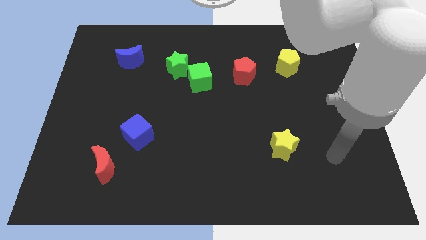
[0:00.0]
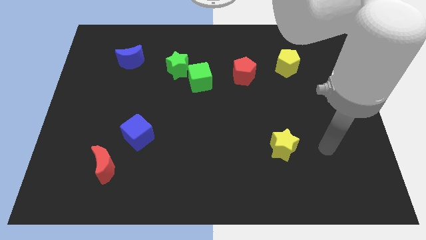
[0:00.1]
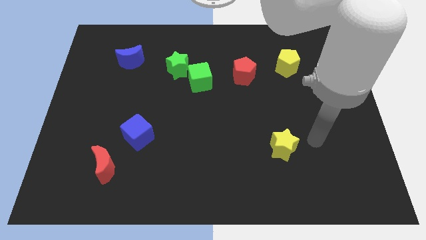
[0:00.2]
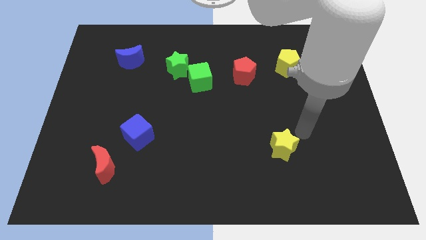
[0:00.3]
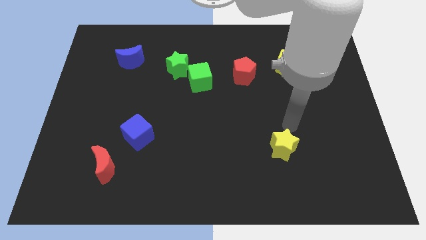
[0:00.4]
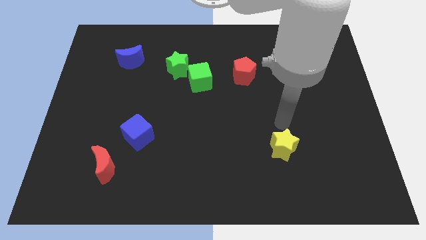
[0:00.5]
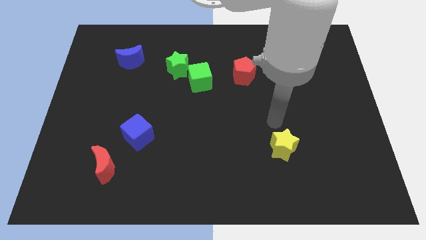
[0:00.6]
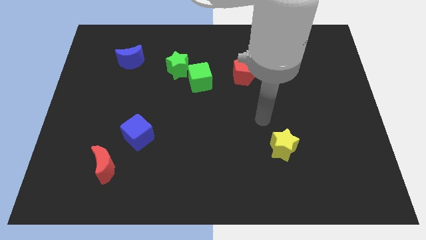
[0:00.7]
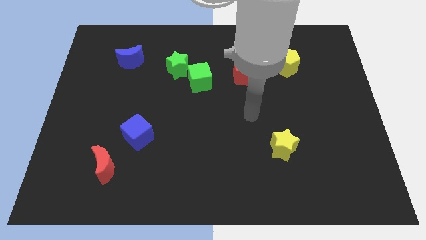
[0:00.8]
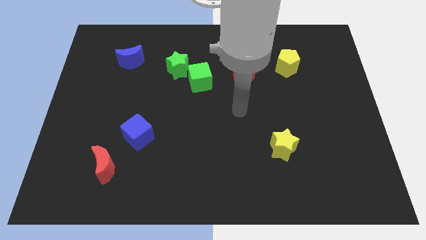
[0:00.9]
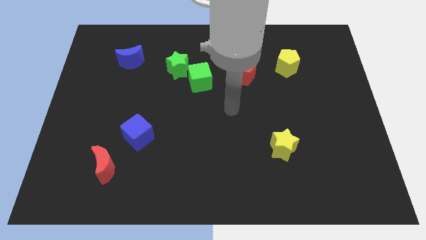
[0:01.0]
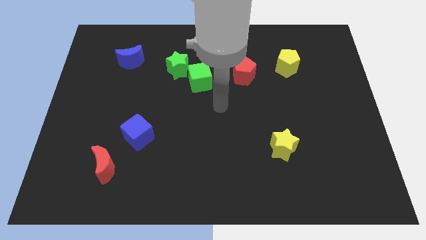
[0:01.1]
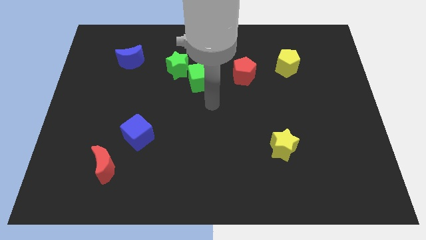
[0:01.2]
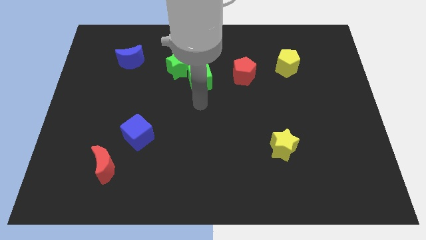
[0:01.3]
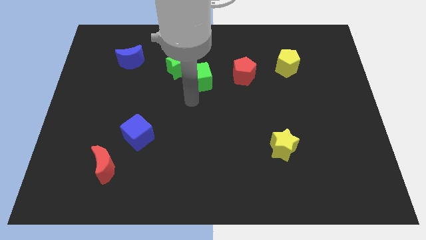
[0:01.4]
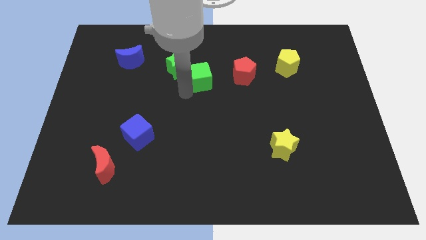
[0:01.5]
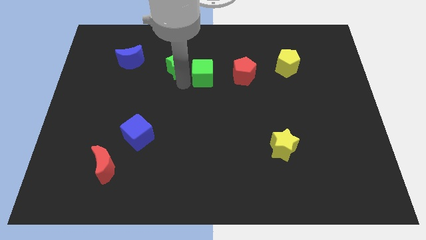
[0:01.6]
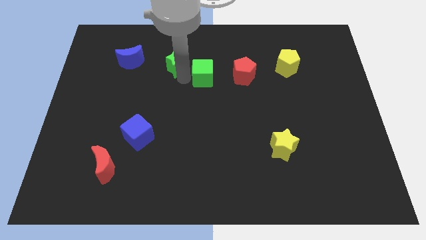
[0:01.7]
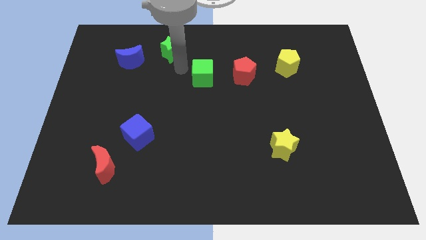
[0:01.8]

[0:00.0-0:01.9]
pull the green cube apart from the green star

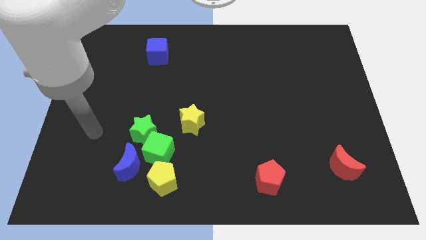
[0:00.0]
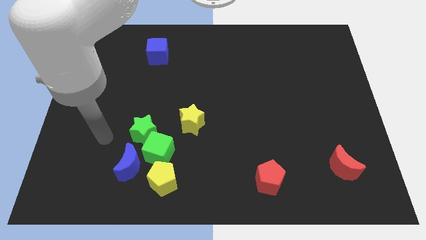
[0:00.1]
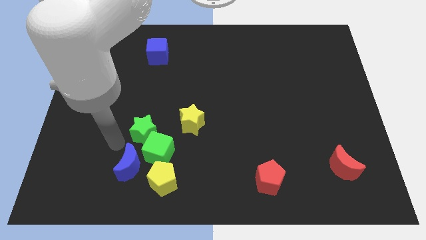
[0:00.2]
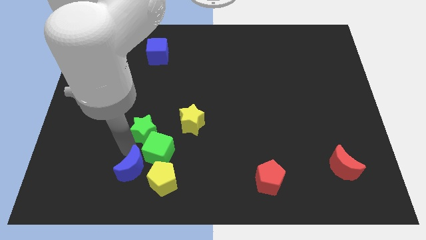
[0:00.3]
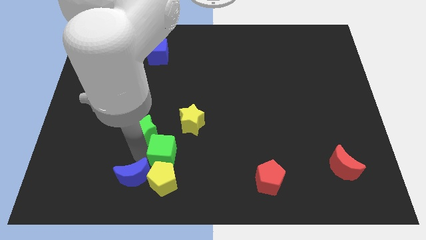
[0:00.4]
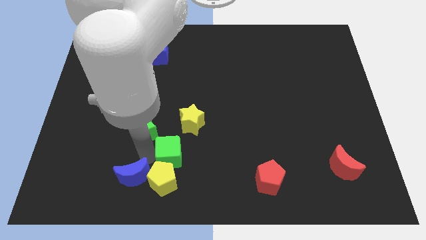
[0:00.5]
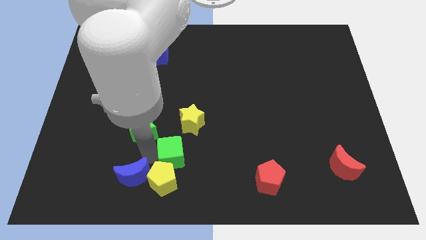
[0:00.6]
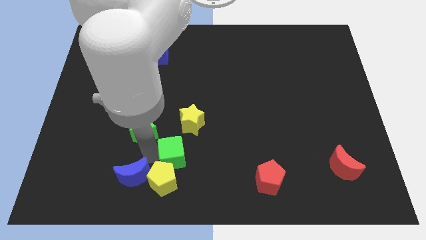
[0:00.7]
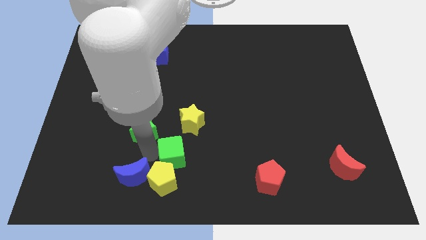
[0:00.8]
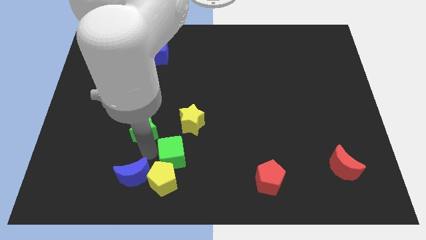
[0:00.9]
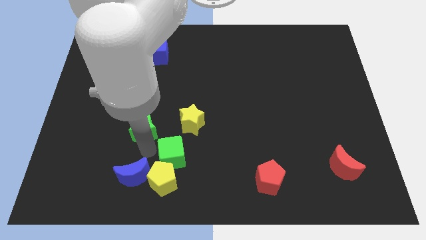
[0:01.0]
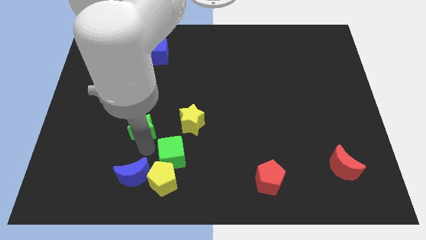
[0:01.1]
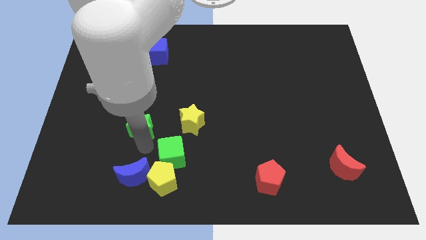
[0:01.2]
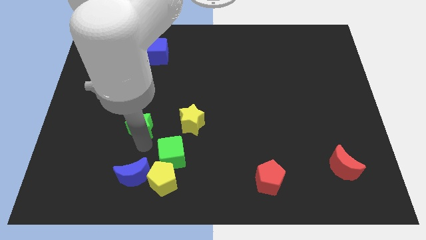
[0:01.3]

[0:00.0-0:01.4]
pull the green star apart from the green cube and blue moon

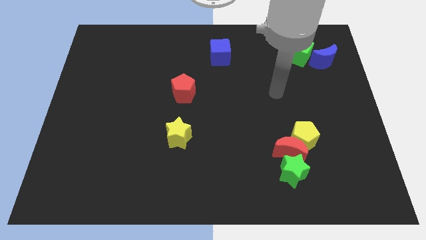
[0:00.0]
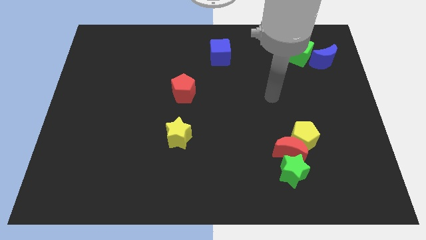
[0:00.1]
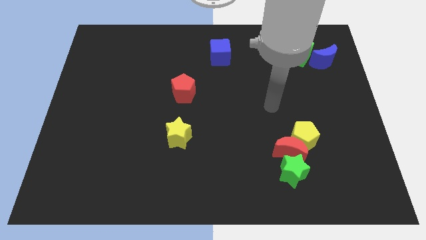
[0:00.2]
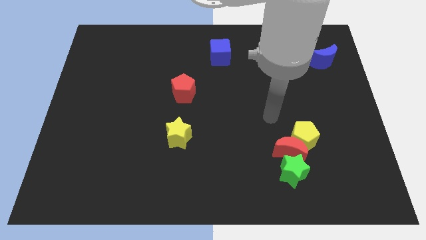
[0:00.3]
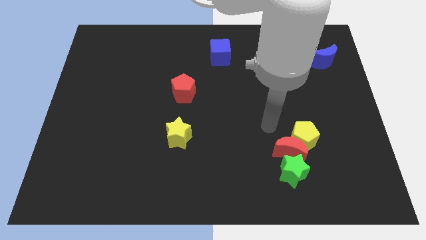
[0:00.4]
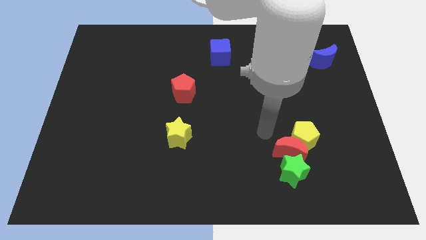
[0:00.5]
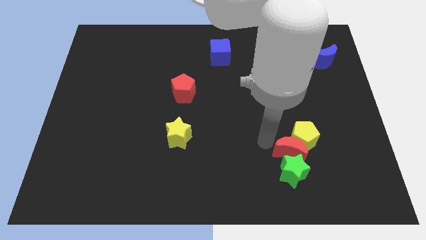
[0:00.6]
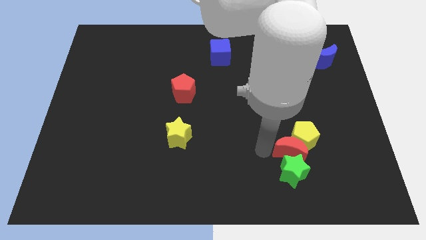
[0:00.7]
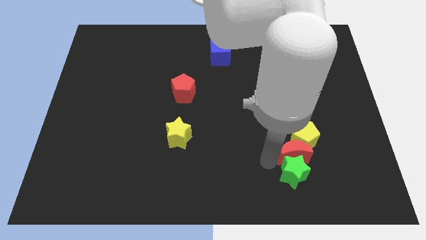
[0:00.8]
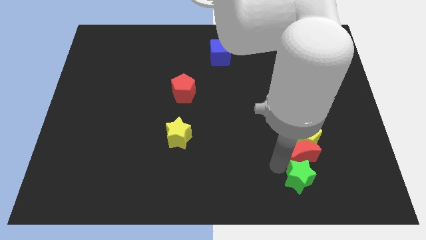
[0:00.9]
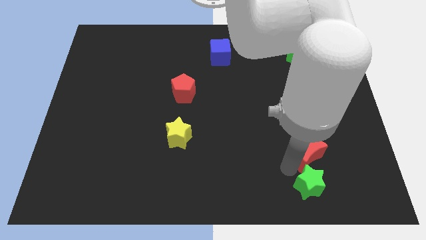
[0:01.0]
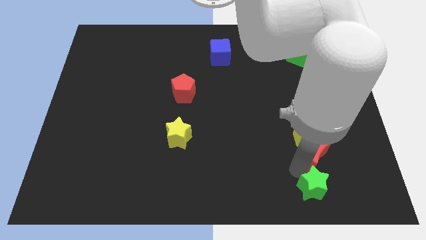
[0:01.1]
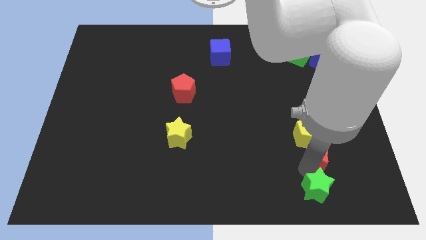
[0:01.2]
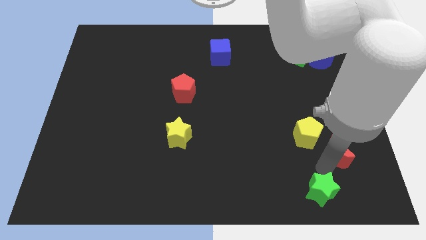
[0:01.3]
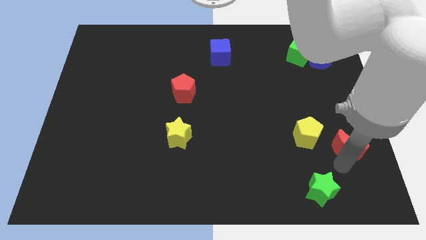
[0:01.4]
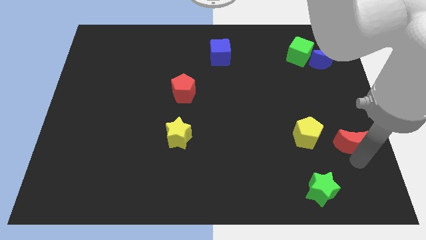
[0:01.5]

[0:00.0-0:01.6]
pull the red moon apart from the yellow pentagon and green star

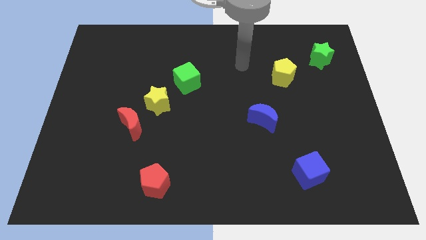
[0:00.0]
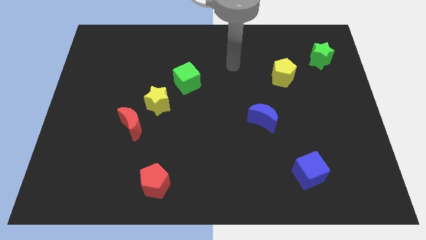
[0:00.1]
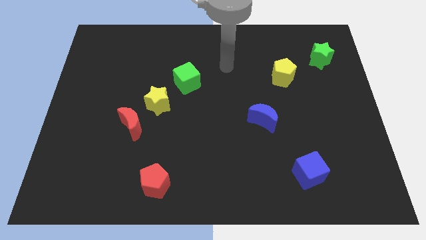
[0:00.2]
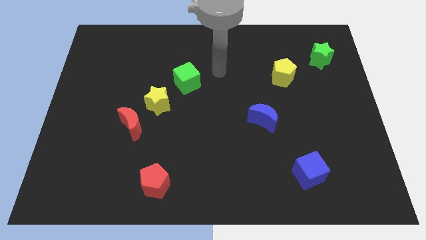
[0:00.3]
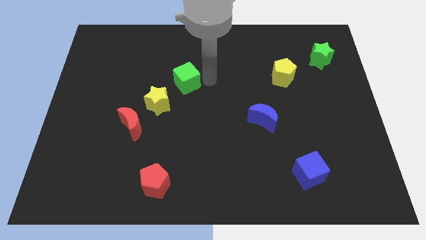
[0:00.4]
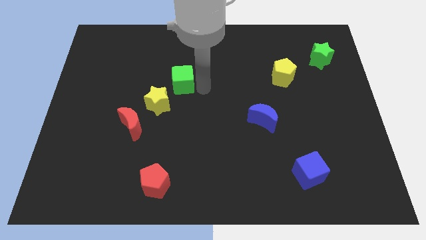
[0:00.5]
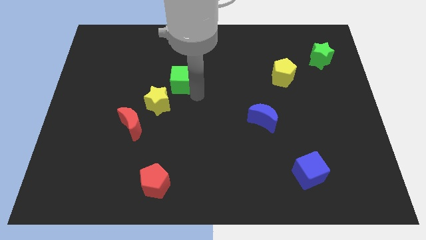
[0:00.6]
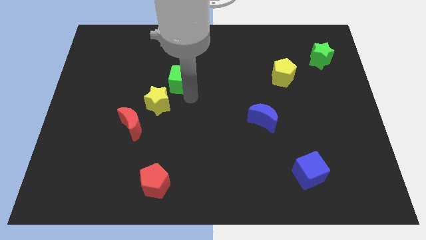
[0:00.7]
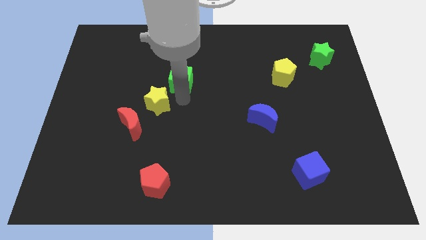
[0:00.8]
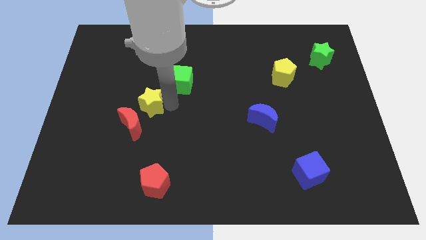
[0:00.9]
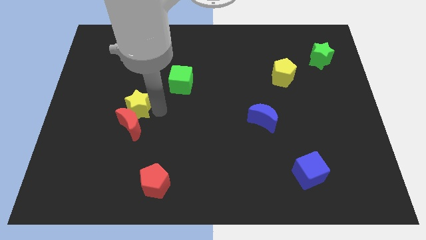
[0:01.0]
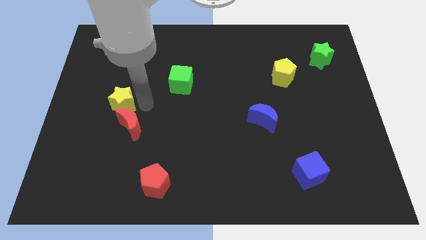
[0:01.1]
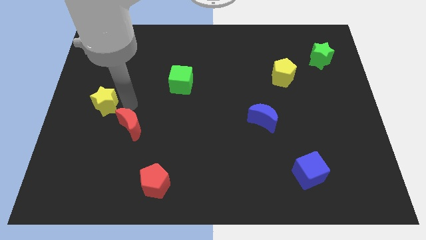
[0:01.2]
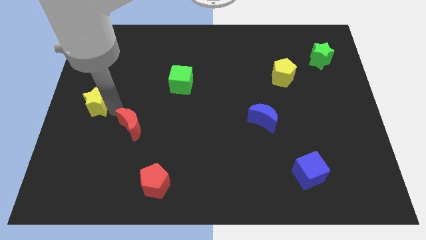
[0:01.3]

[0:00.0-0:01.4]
move the red moon away from the yellow star

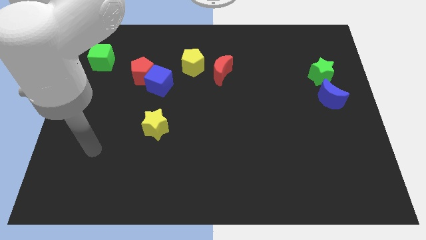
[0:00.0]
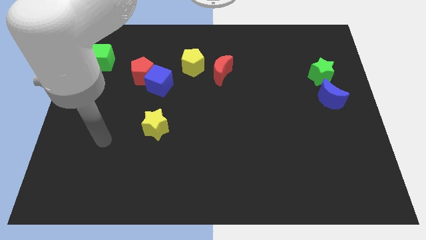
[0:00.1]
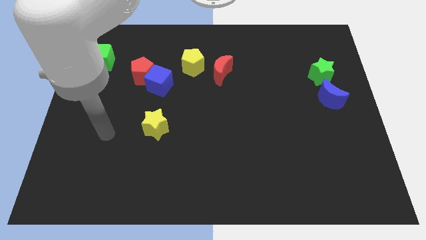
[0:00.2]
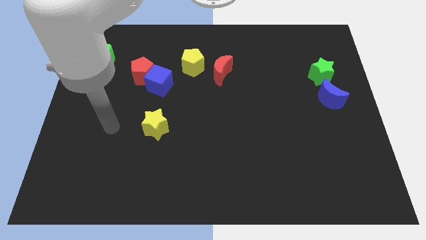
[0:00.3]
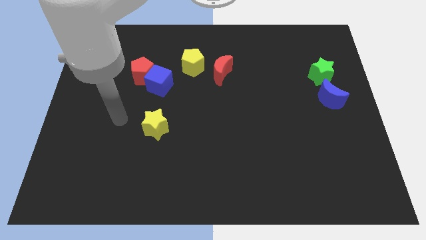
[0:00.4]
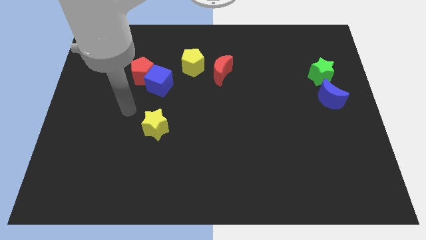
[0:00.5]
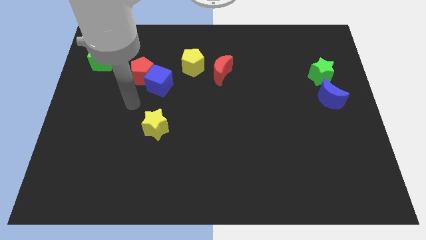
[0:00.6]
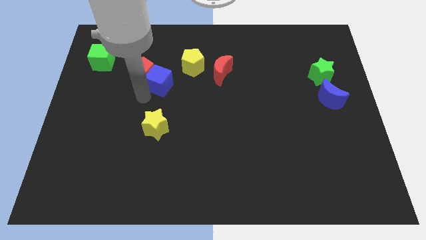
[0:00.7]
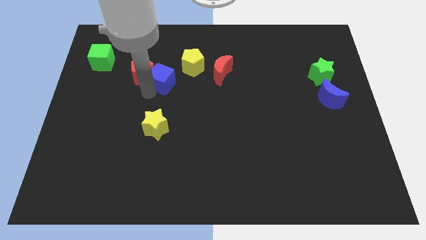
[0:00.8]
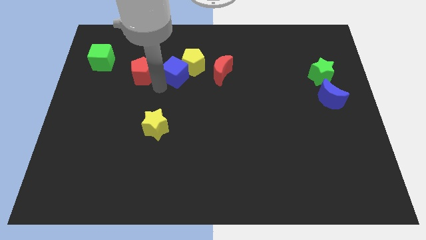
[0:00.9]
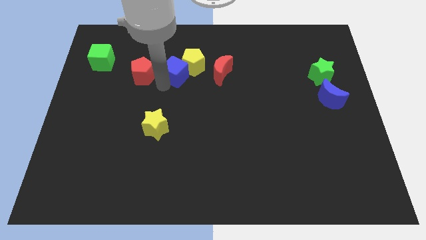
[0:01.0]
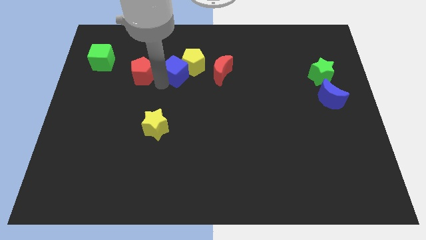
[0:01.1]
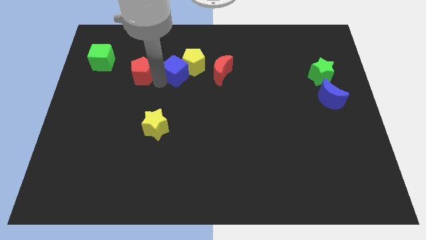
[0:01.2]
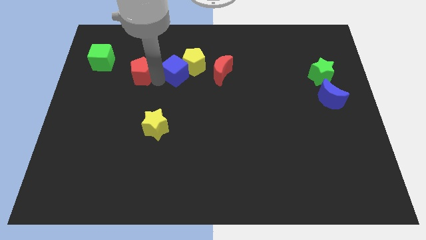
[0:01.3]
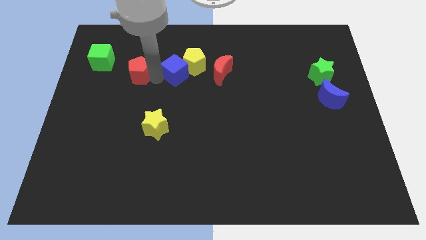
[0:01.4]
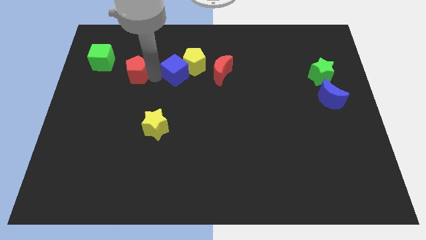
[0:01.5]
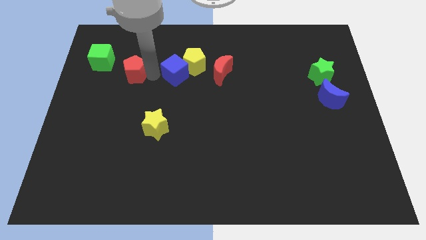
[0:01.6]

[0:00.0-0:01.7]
move the red pentagon away from the blue cube

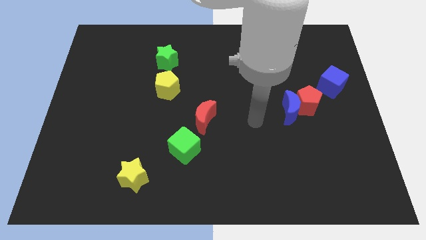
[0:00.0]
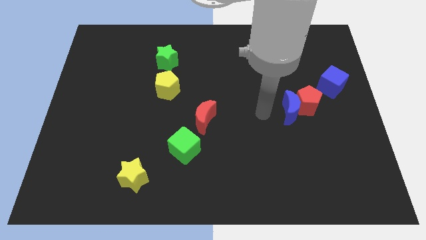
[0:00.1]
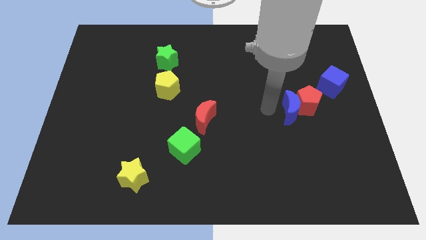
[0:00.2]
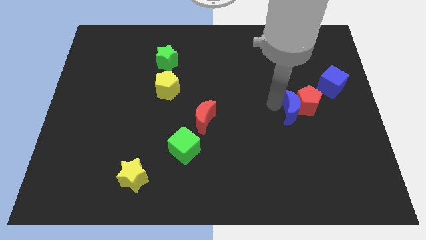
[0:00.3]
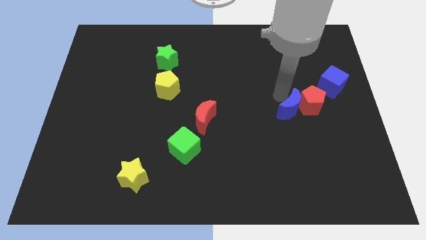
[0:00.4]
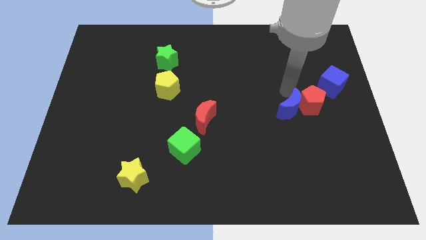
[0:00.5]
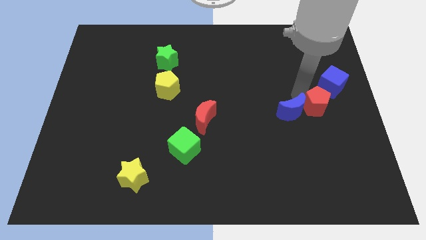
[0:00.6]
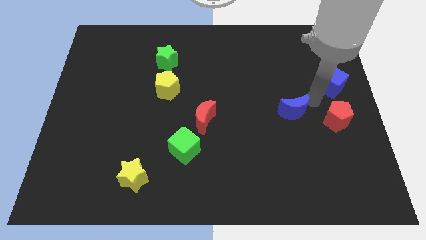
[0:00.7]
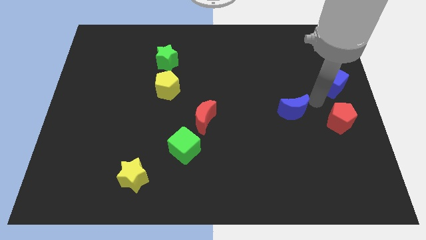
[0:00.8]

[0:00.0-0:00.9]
separate the blue moon from the red pentagon

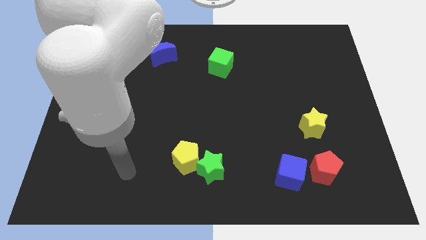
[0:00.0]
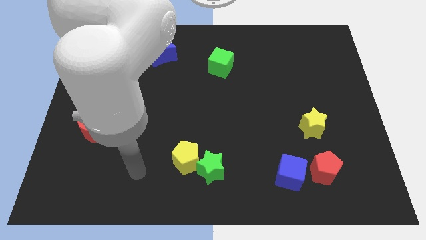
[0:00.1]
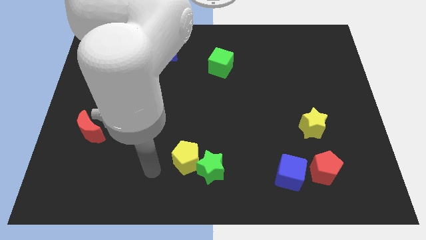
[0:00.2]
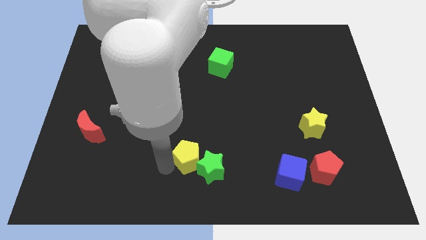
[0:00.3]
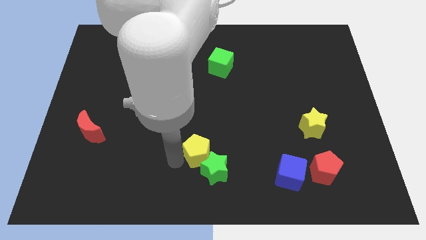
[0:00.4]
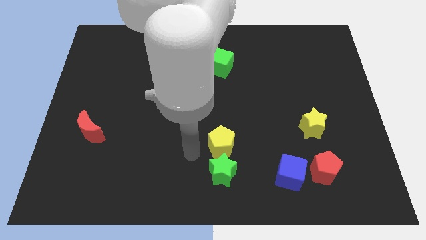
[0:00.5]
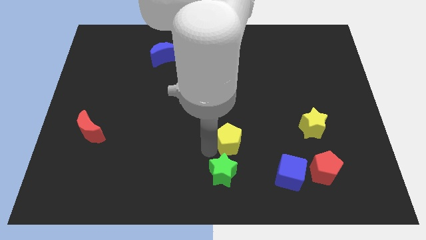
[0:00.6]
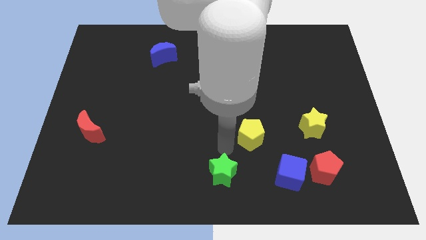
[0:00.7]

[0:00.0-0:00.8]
separate the green star from the yellow pentagon
